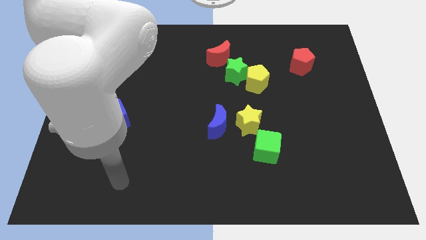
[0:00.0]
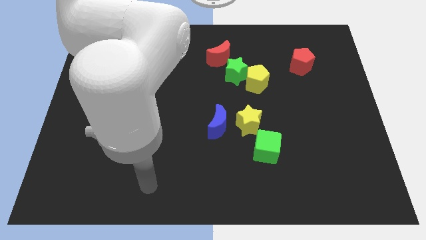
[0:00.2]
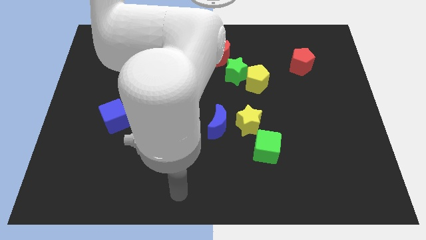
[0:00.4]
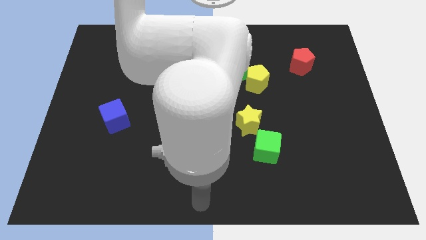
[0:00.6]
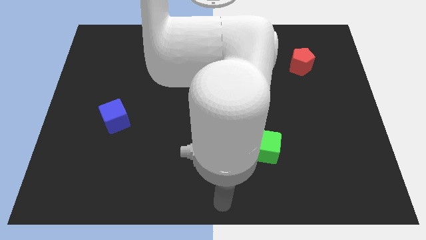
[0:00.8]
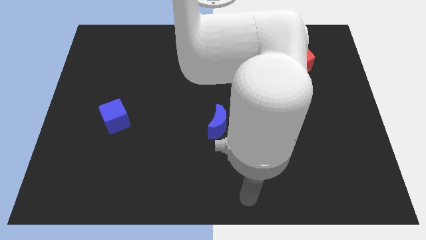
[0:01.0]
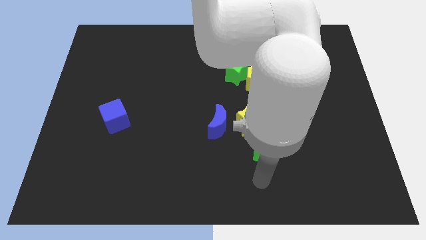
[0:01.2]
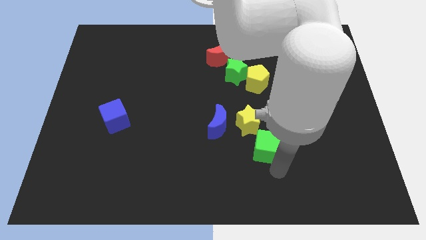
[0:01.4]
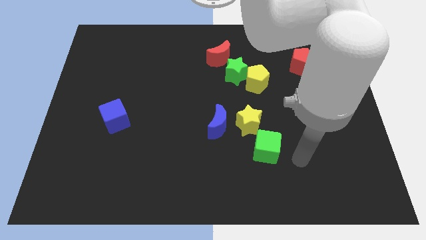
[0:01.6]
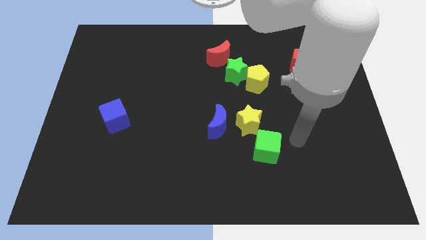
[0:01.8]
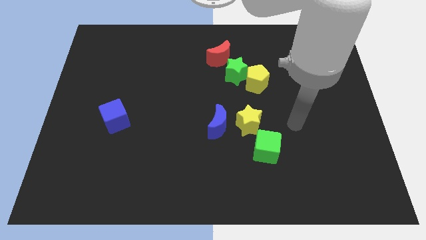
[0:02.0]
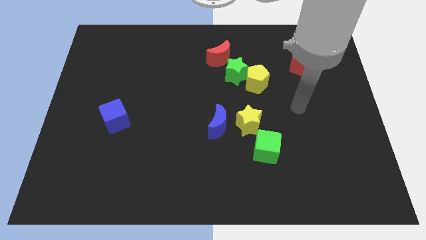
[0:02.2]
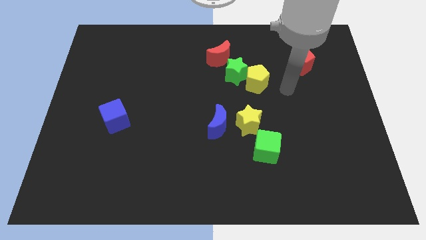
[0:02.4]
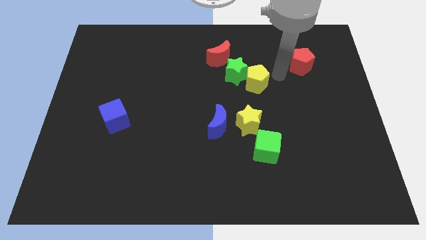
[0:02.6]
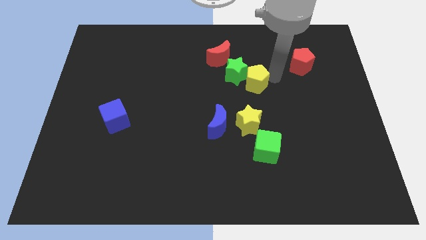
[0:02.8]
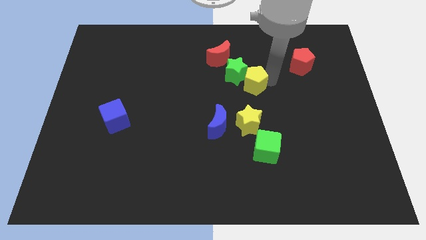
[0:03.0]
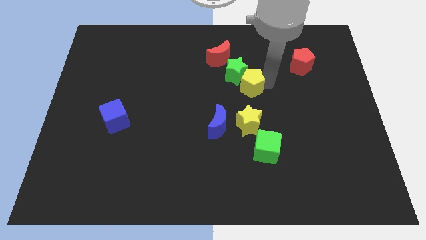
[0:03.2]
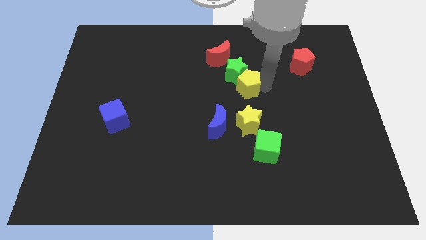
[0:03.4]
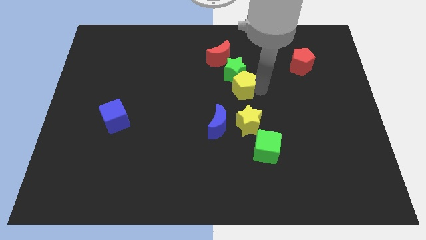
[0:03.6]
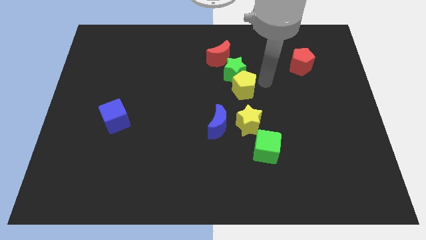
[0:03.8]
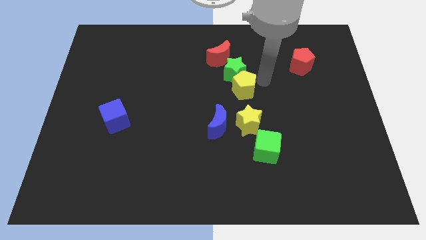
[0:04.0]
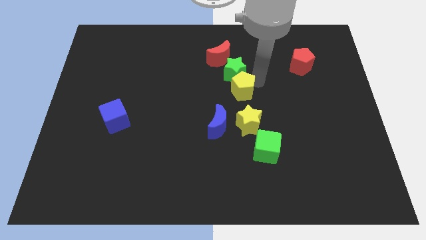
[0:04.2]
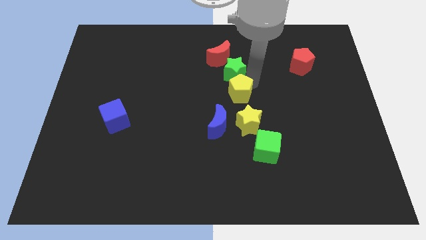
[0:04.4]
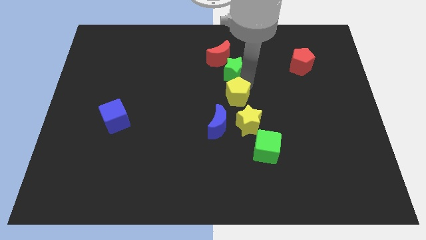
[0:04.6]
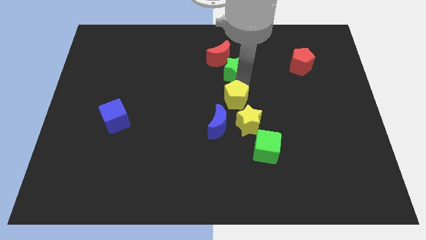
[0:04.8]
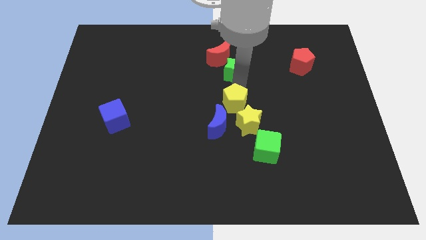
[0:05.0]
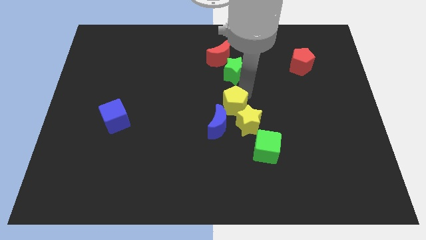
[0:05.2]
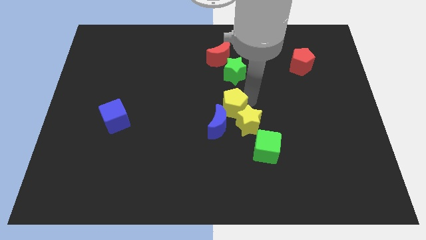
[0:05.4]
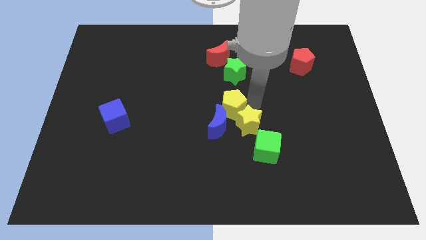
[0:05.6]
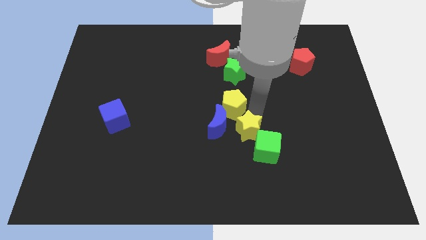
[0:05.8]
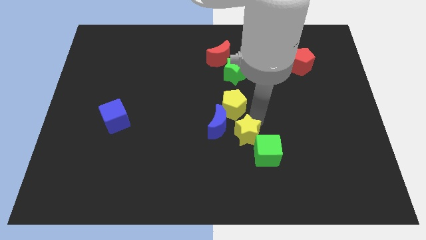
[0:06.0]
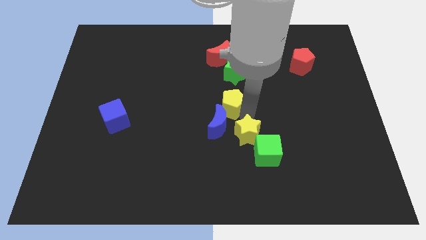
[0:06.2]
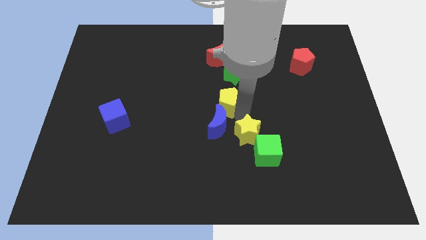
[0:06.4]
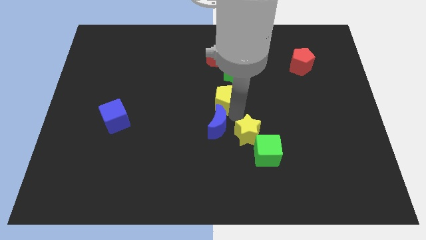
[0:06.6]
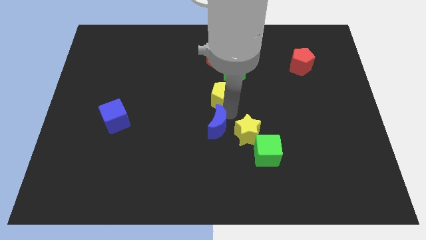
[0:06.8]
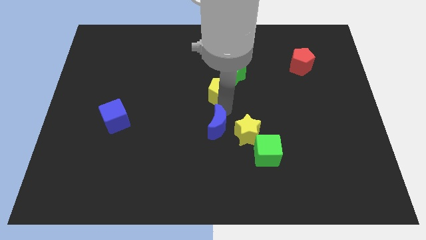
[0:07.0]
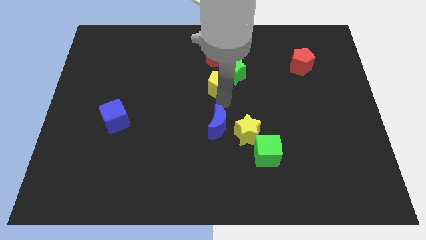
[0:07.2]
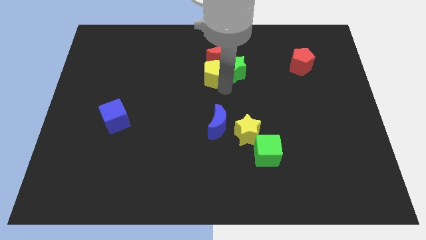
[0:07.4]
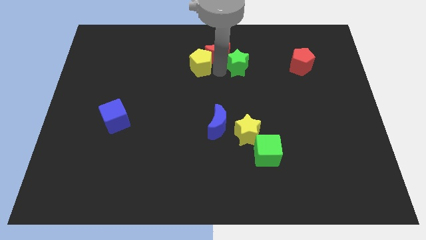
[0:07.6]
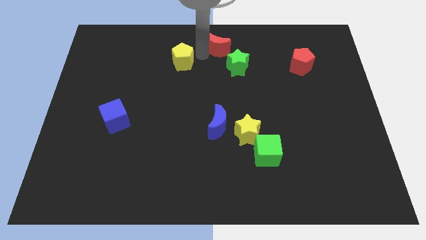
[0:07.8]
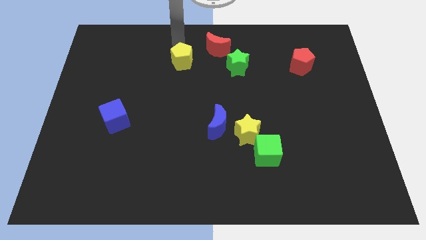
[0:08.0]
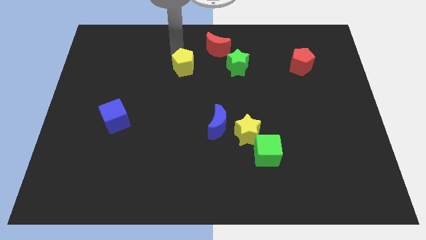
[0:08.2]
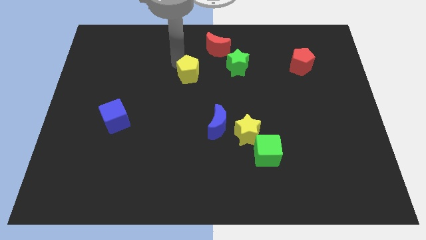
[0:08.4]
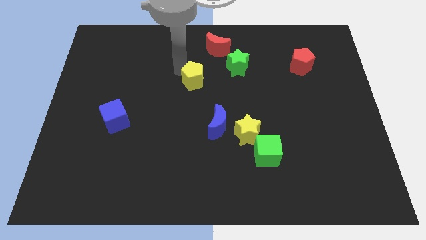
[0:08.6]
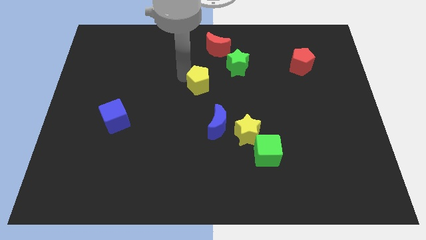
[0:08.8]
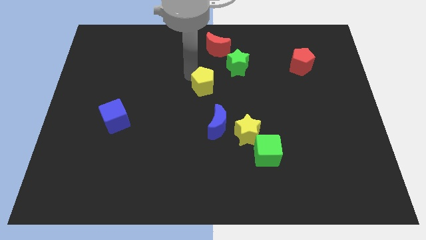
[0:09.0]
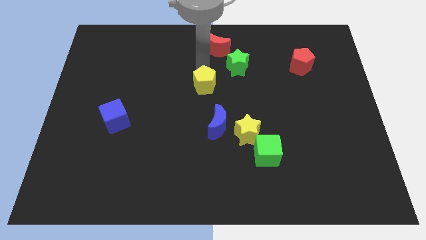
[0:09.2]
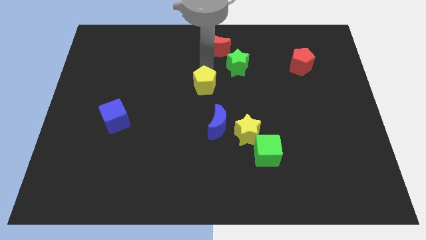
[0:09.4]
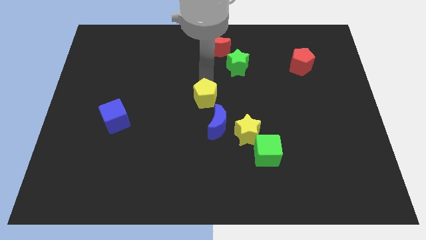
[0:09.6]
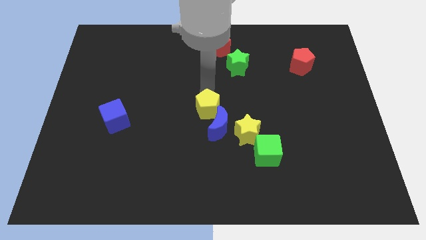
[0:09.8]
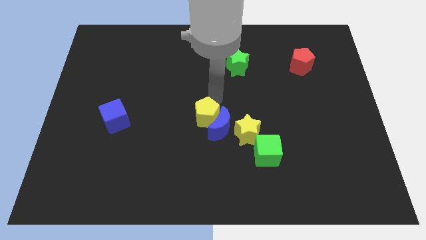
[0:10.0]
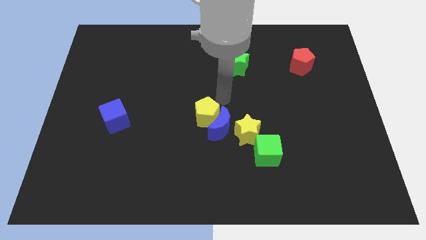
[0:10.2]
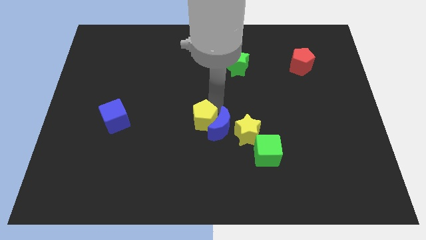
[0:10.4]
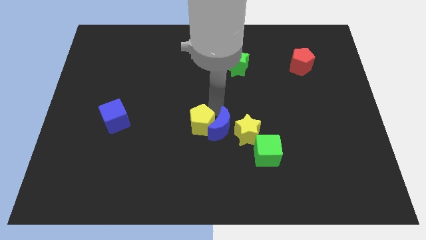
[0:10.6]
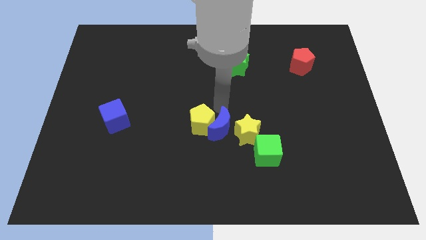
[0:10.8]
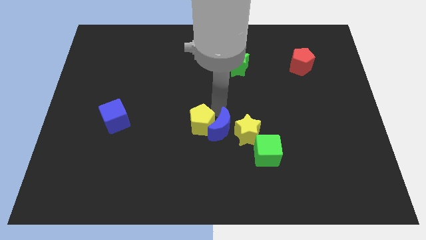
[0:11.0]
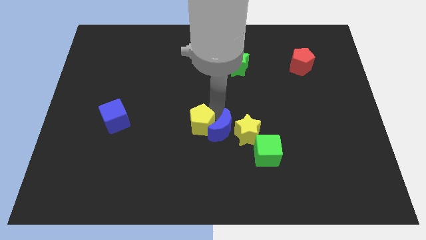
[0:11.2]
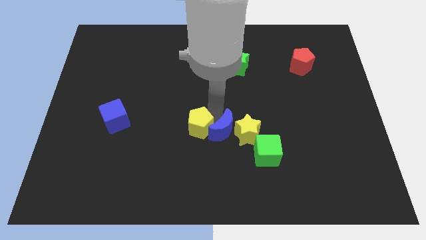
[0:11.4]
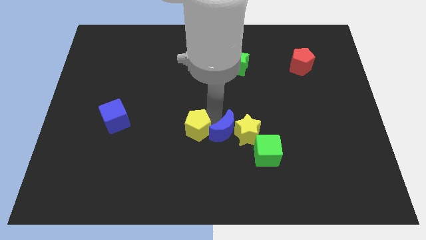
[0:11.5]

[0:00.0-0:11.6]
move the yellow pentagon down and then to the left

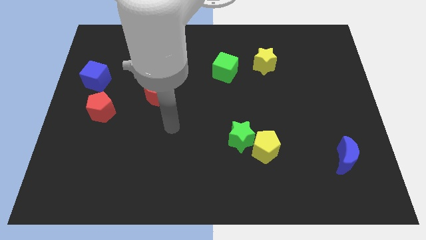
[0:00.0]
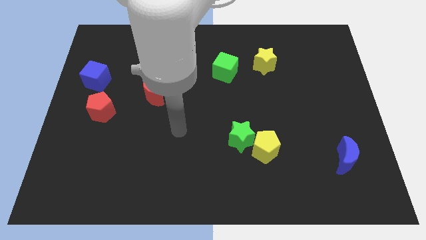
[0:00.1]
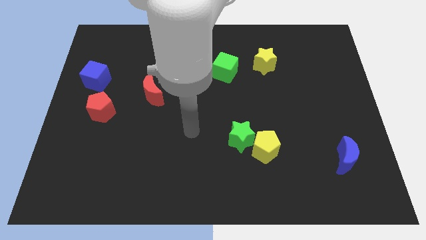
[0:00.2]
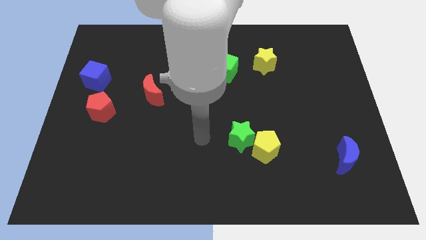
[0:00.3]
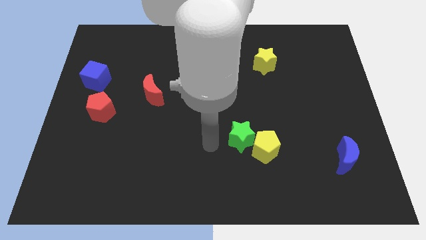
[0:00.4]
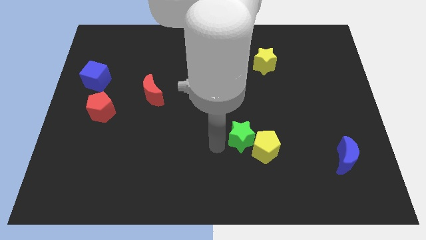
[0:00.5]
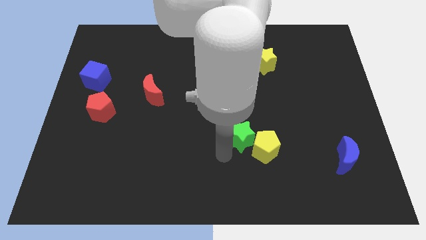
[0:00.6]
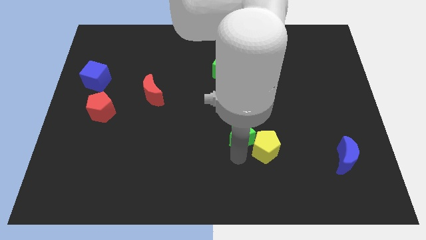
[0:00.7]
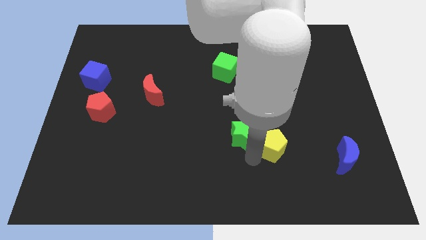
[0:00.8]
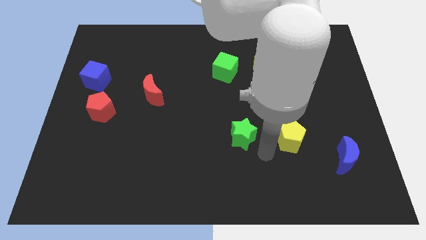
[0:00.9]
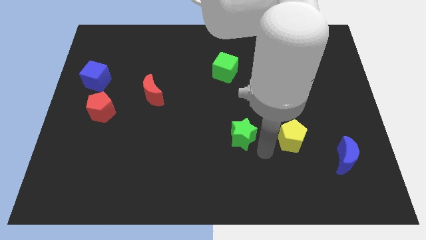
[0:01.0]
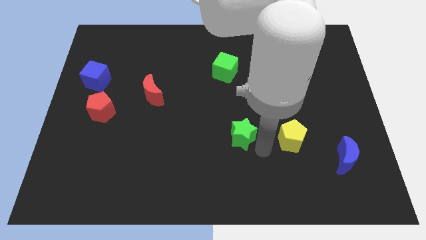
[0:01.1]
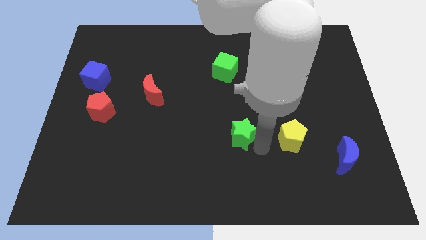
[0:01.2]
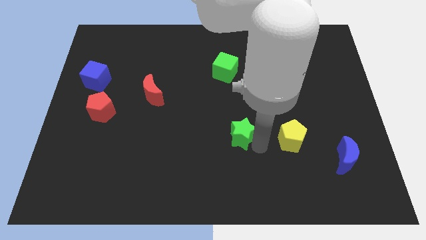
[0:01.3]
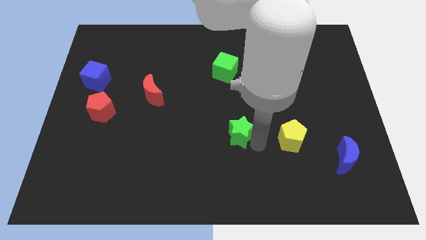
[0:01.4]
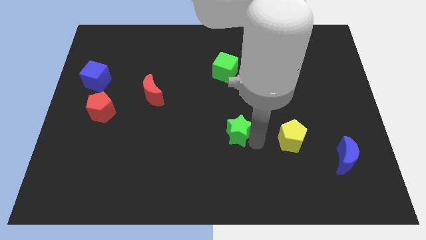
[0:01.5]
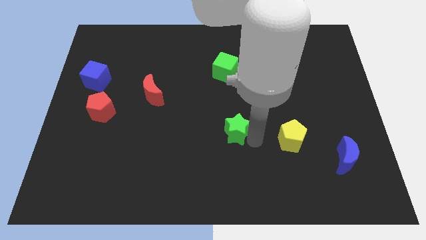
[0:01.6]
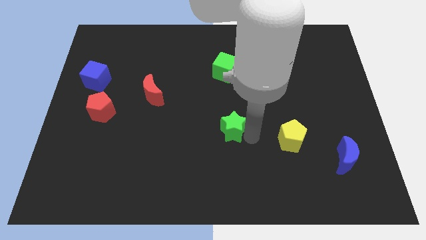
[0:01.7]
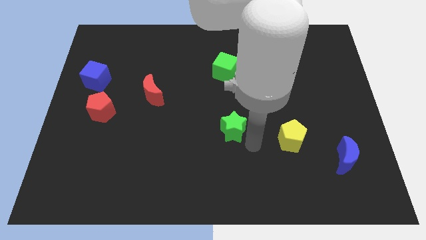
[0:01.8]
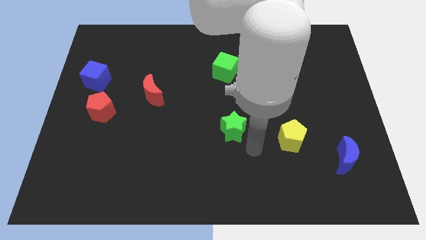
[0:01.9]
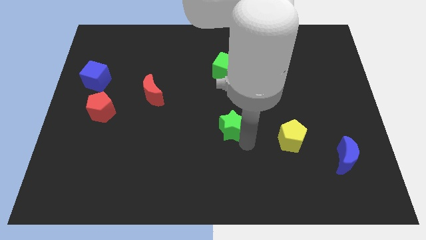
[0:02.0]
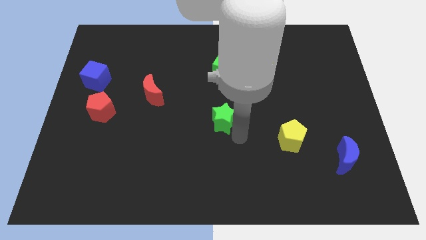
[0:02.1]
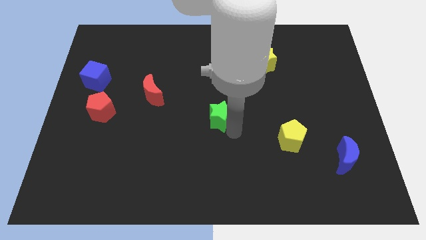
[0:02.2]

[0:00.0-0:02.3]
push the green star diagonally upwards and to the left a bit
